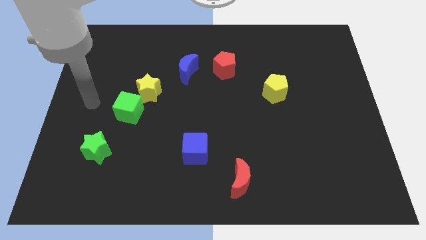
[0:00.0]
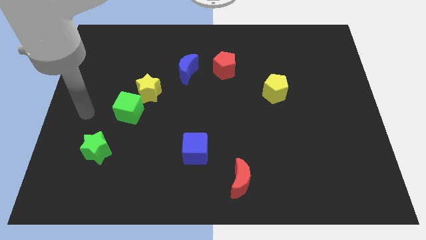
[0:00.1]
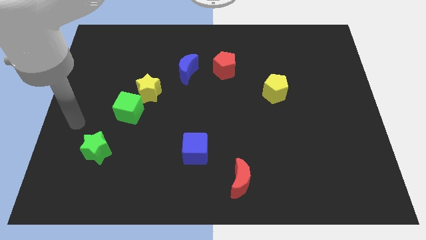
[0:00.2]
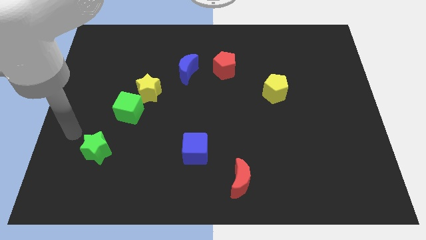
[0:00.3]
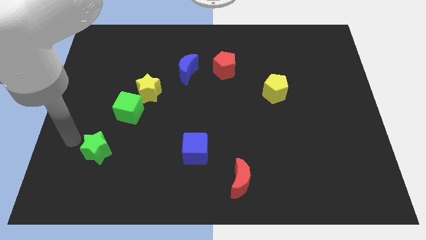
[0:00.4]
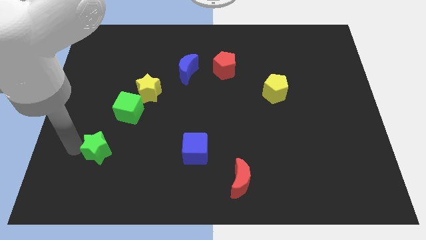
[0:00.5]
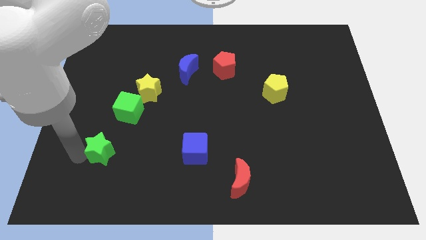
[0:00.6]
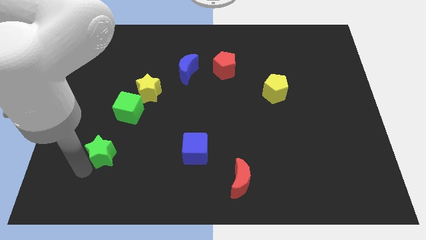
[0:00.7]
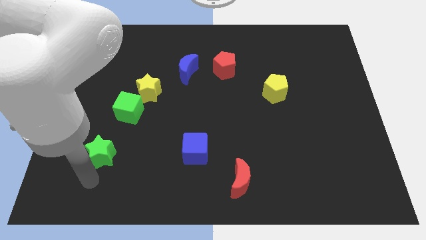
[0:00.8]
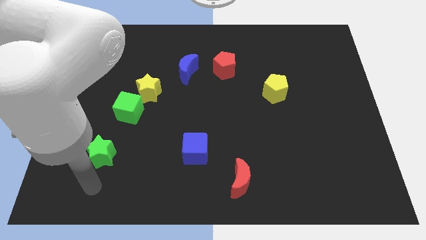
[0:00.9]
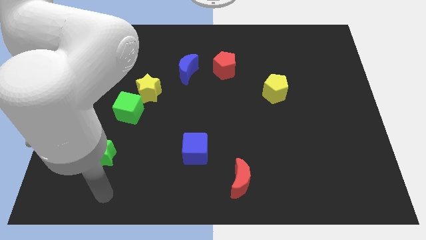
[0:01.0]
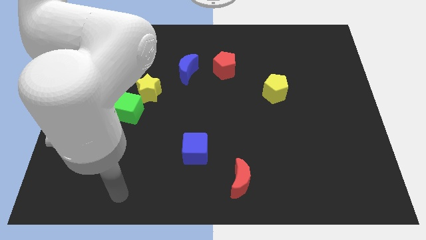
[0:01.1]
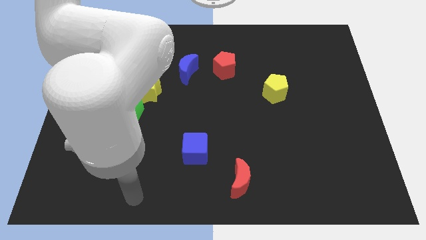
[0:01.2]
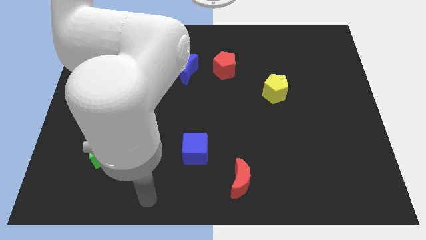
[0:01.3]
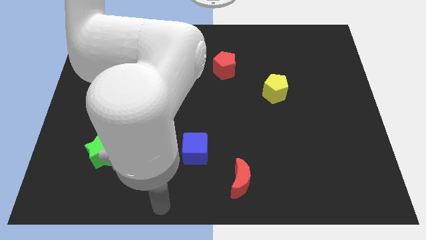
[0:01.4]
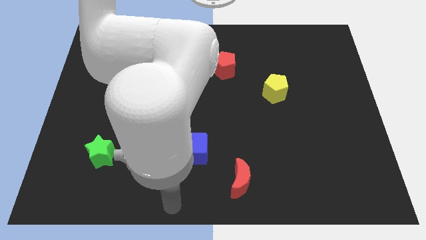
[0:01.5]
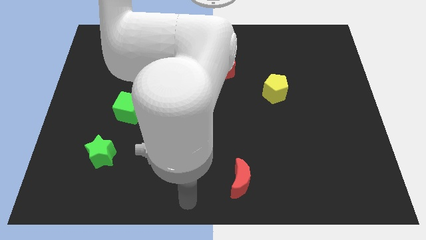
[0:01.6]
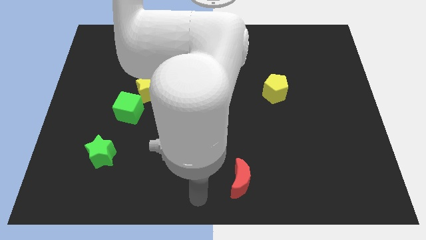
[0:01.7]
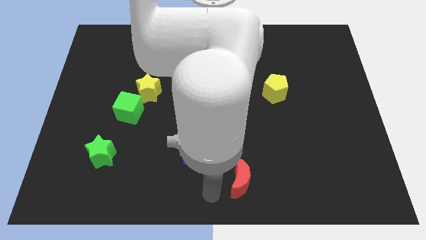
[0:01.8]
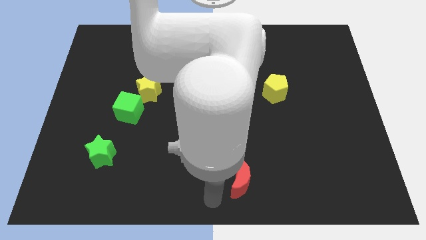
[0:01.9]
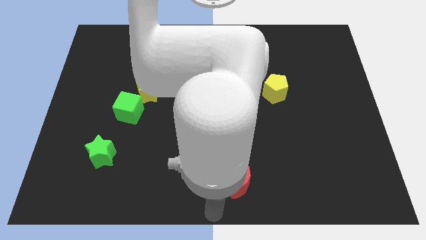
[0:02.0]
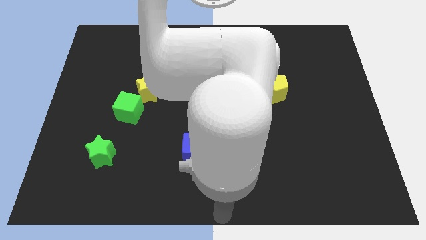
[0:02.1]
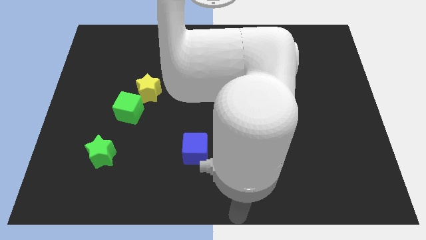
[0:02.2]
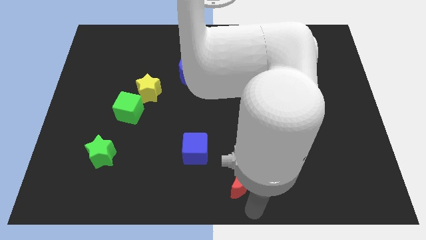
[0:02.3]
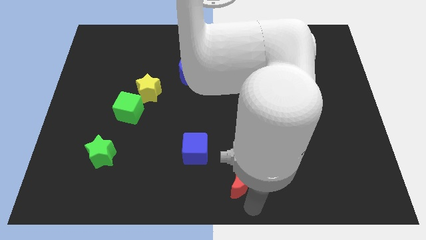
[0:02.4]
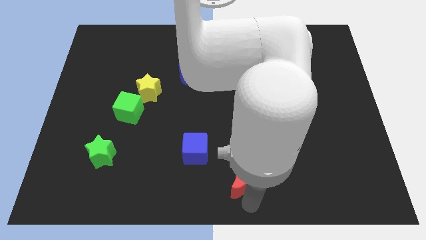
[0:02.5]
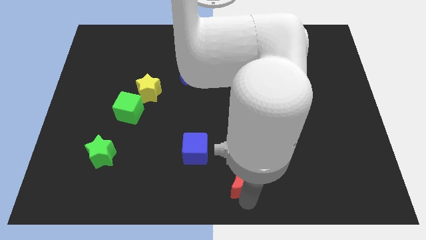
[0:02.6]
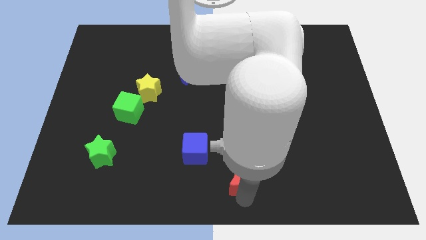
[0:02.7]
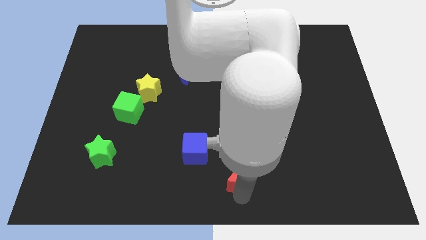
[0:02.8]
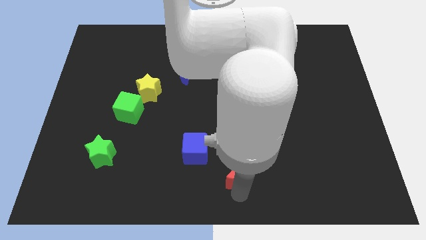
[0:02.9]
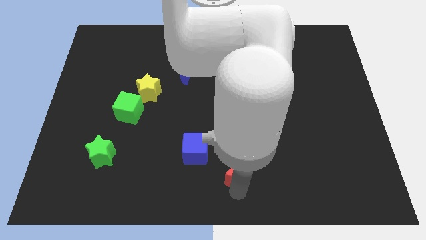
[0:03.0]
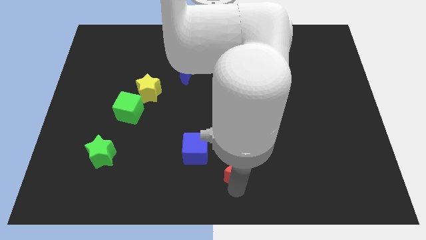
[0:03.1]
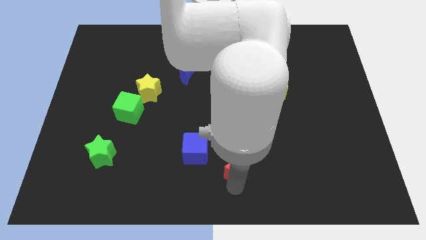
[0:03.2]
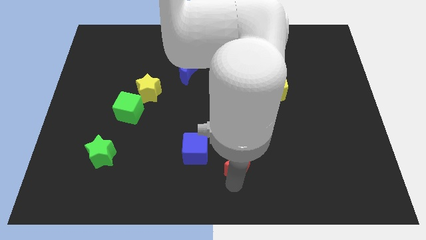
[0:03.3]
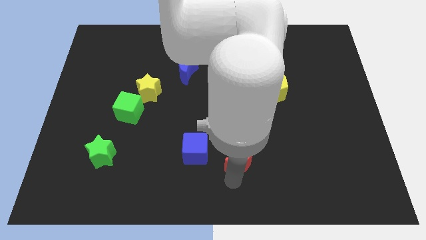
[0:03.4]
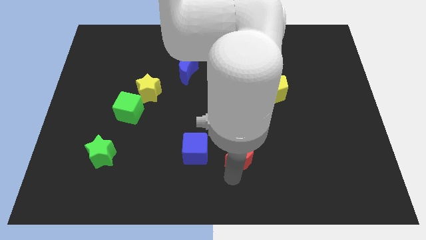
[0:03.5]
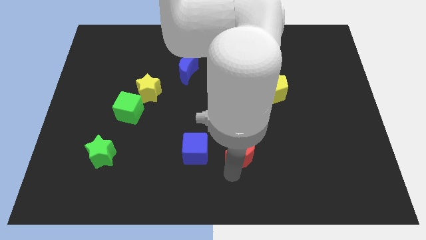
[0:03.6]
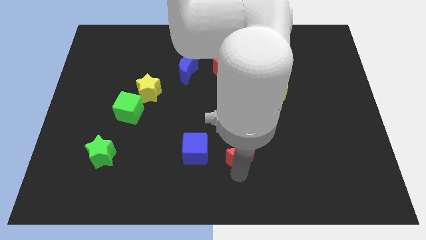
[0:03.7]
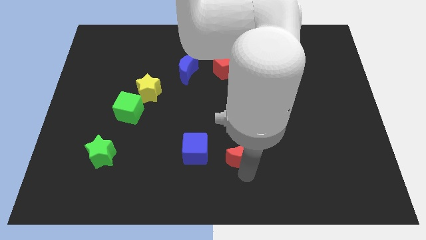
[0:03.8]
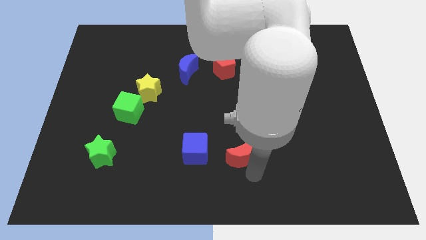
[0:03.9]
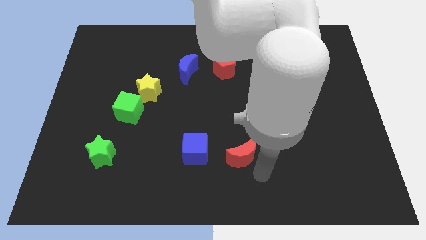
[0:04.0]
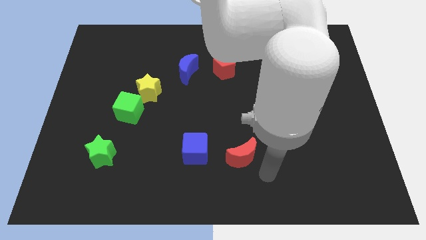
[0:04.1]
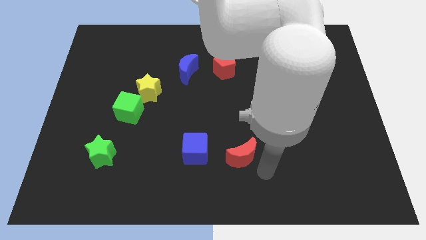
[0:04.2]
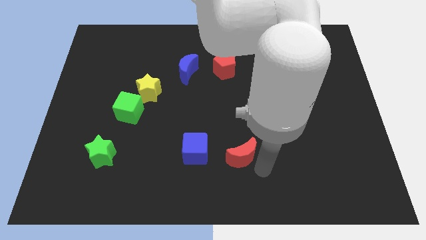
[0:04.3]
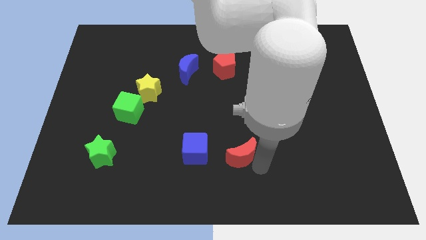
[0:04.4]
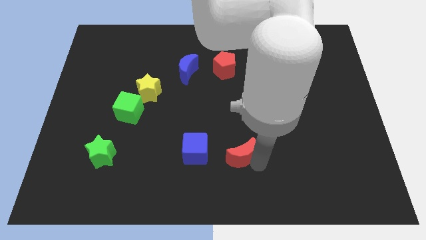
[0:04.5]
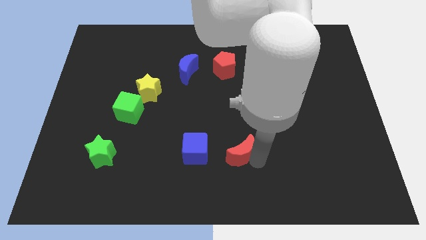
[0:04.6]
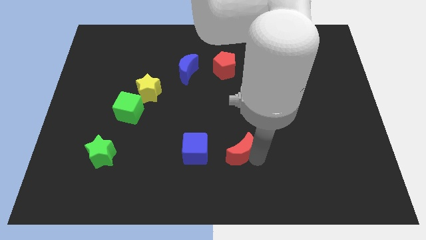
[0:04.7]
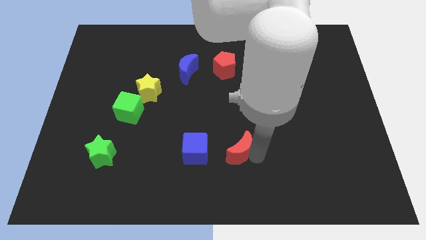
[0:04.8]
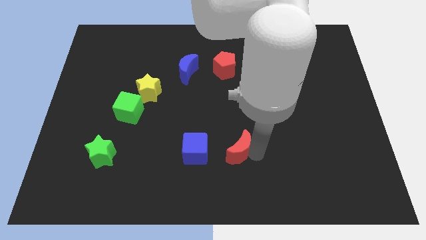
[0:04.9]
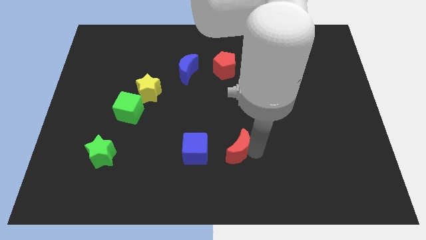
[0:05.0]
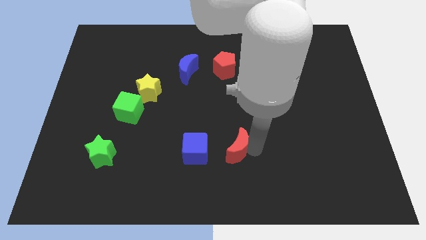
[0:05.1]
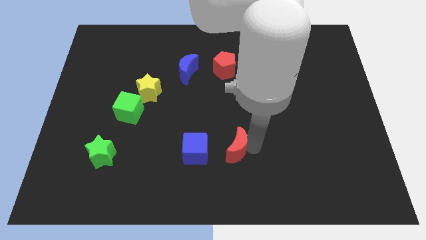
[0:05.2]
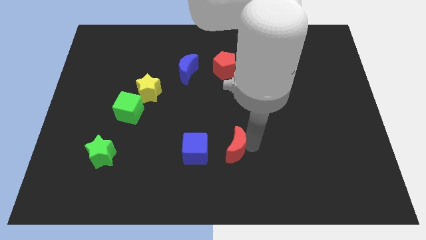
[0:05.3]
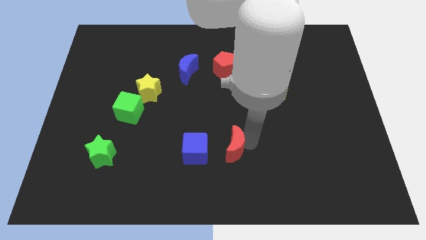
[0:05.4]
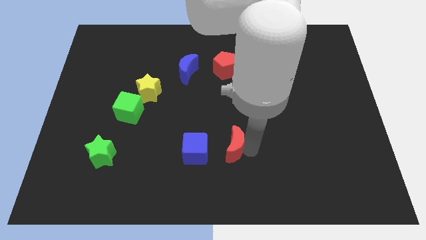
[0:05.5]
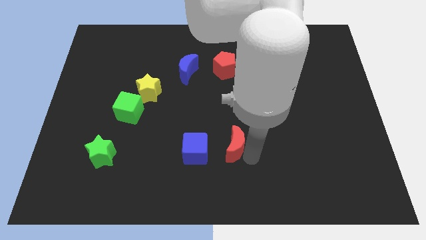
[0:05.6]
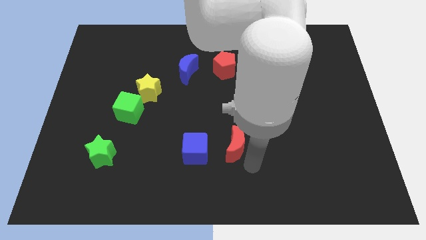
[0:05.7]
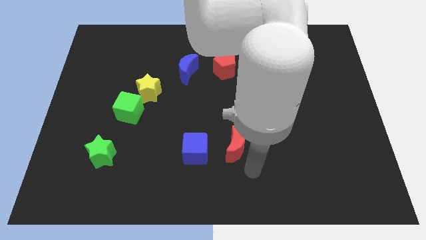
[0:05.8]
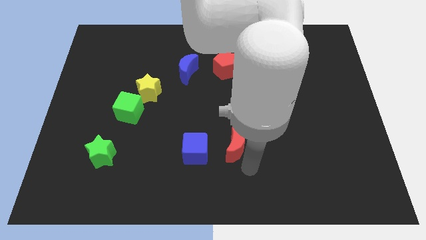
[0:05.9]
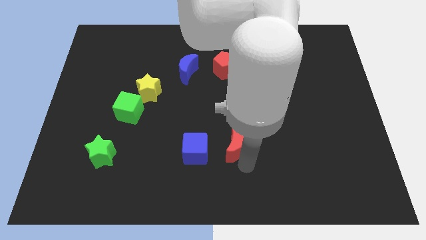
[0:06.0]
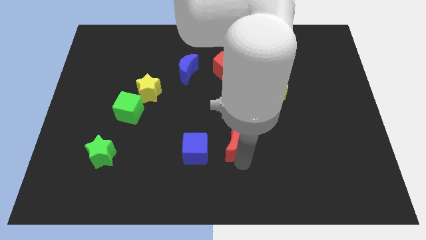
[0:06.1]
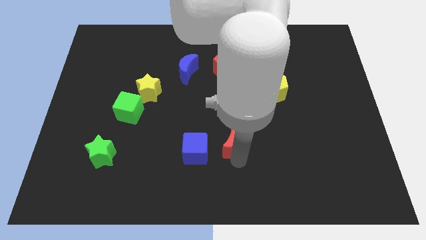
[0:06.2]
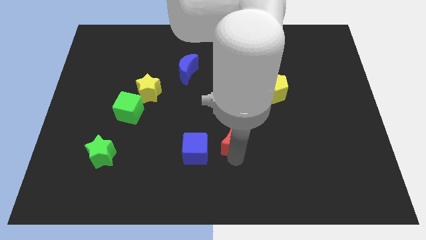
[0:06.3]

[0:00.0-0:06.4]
put the red moon to the center
